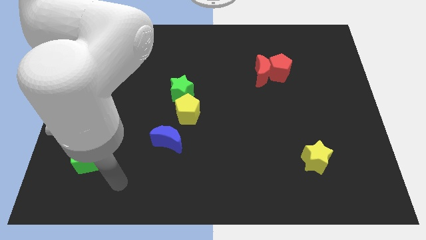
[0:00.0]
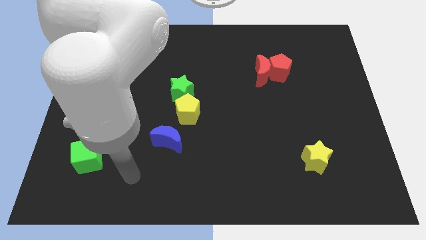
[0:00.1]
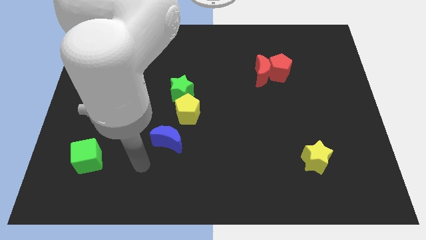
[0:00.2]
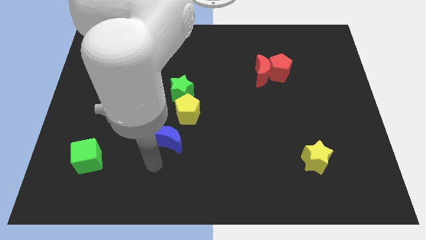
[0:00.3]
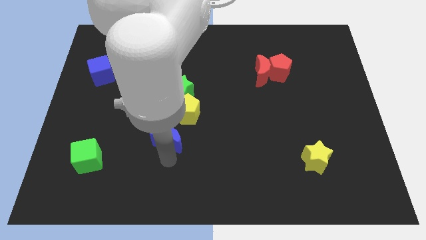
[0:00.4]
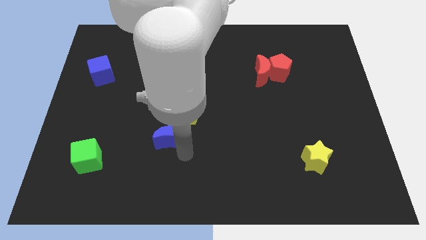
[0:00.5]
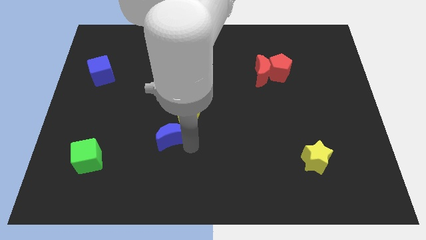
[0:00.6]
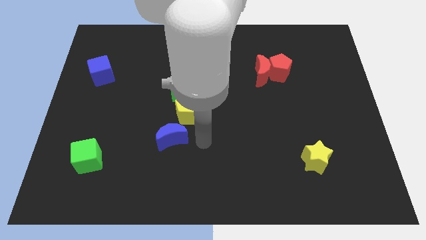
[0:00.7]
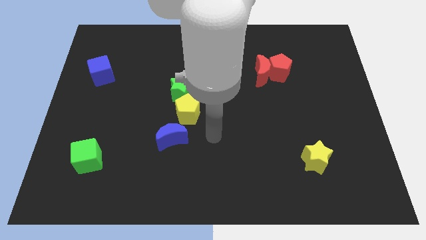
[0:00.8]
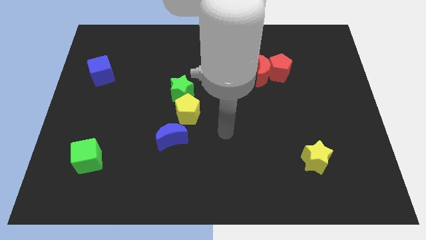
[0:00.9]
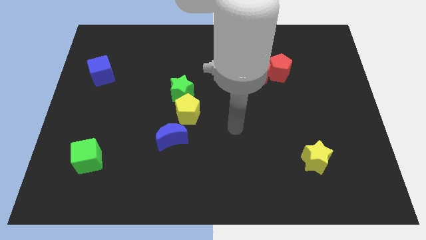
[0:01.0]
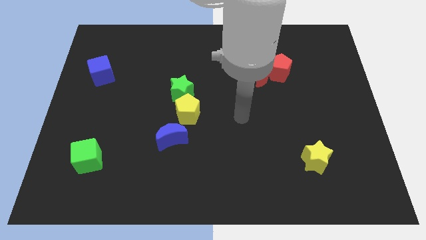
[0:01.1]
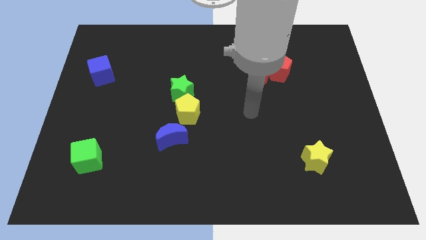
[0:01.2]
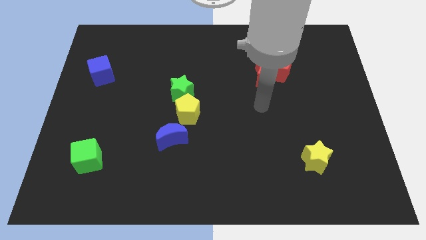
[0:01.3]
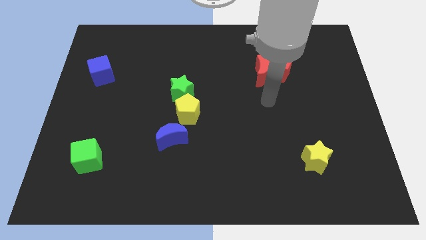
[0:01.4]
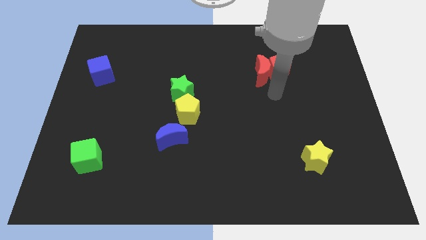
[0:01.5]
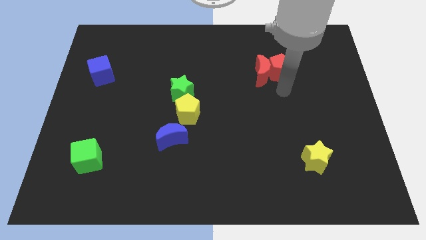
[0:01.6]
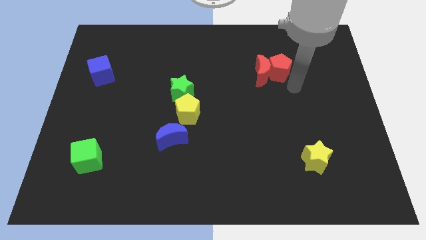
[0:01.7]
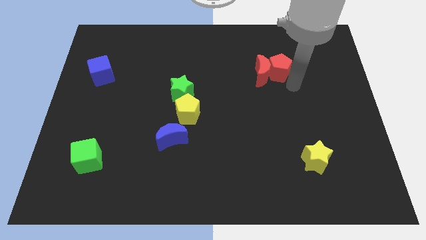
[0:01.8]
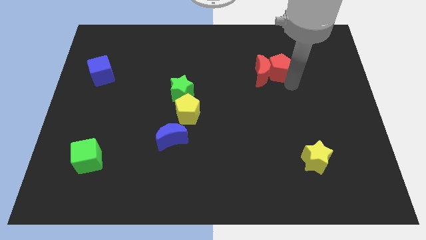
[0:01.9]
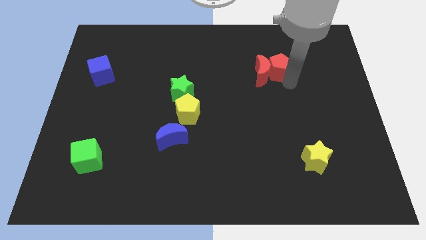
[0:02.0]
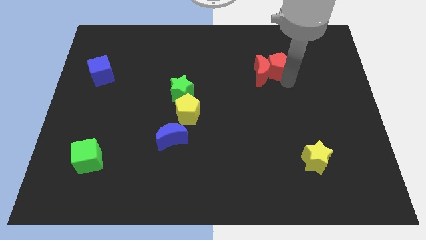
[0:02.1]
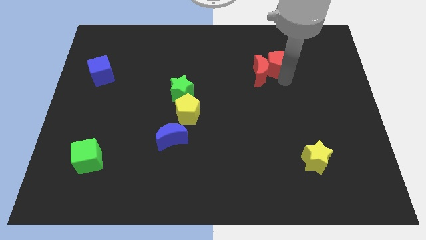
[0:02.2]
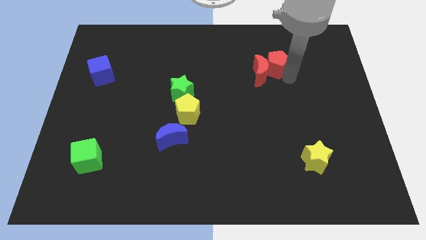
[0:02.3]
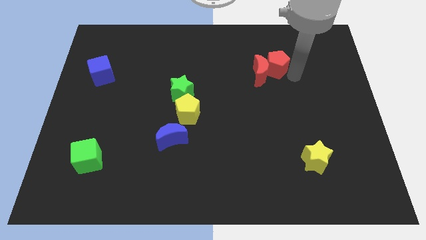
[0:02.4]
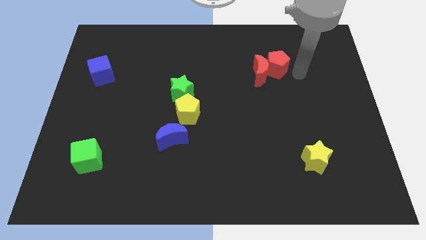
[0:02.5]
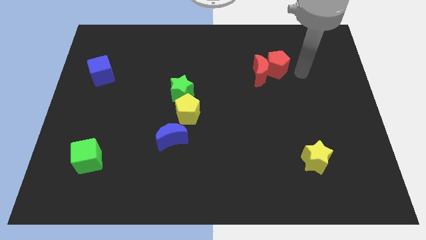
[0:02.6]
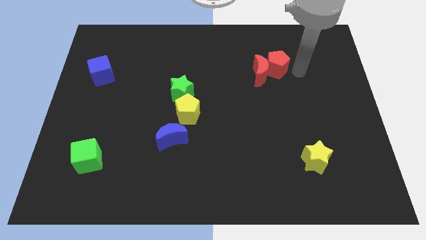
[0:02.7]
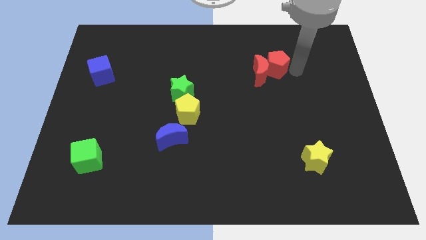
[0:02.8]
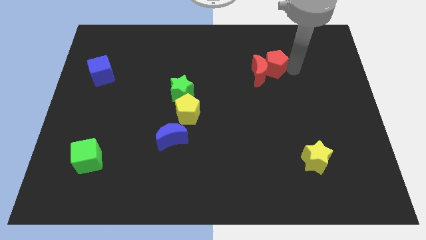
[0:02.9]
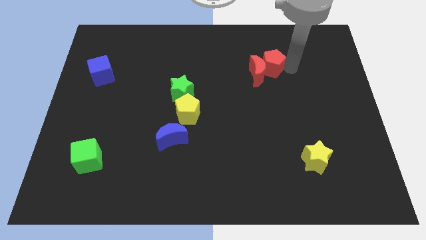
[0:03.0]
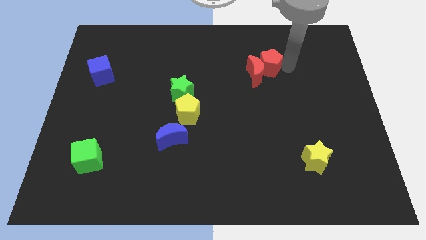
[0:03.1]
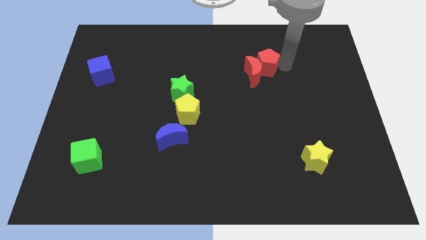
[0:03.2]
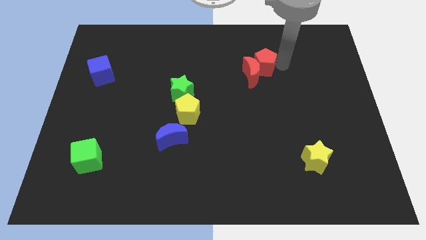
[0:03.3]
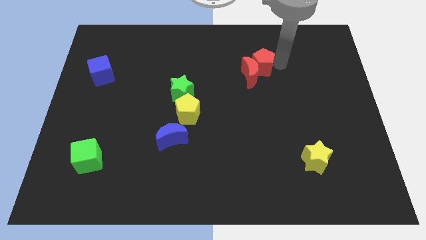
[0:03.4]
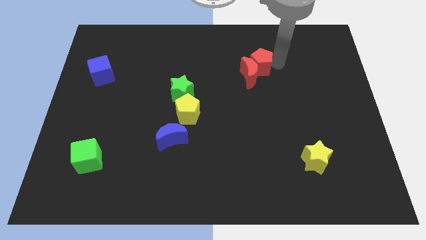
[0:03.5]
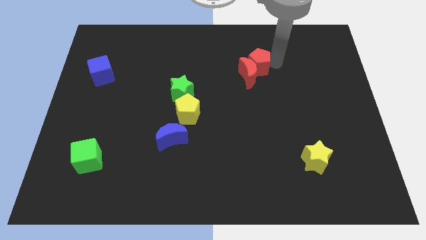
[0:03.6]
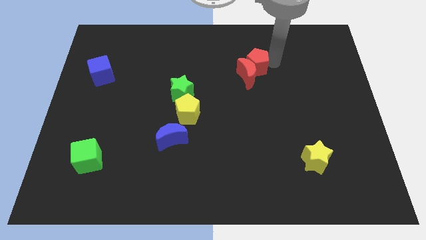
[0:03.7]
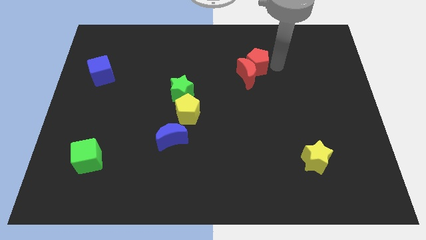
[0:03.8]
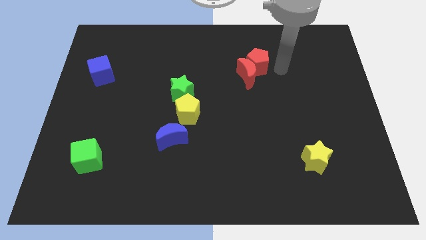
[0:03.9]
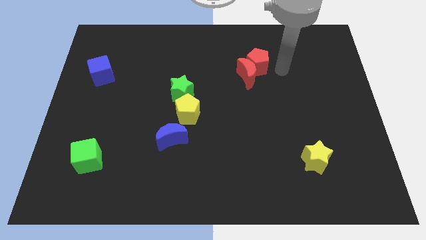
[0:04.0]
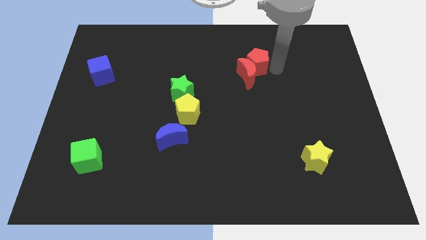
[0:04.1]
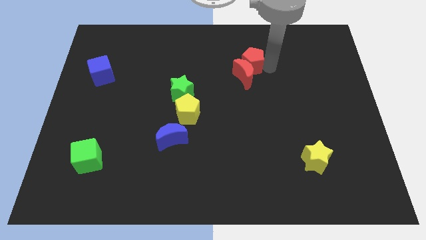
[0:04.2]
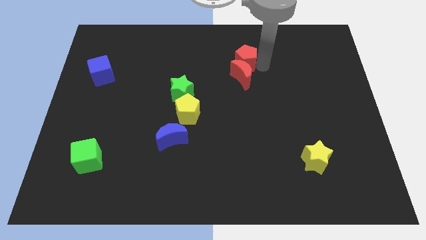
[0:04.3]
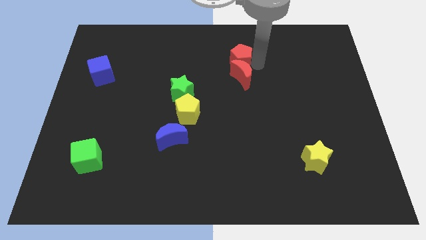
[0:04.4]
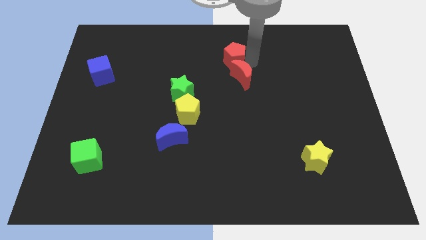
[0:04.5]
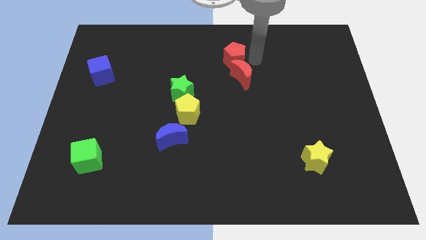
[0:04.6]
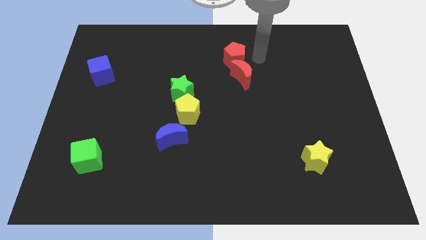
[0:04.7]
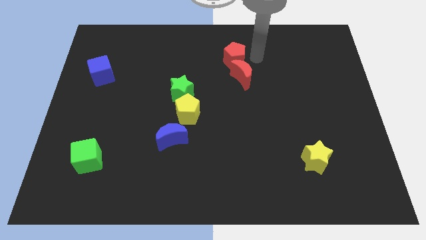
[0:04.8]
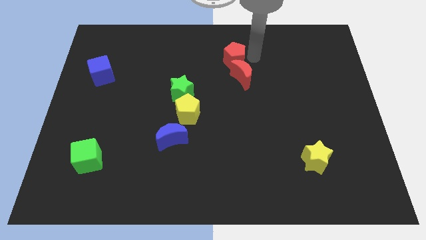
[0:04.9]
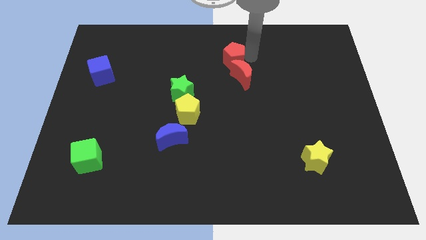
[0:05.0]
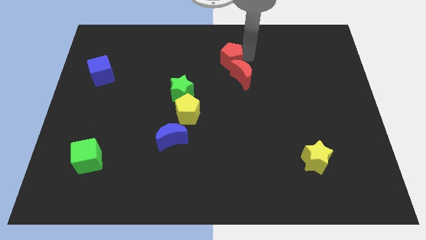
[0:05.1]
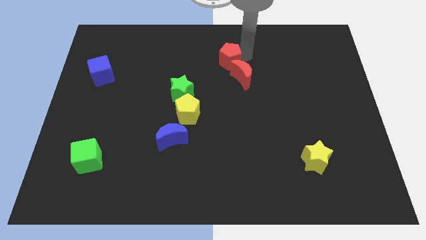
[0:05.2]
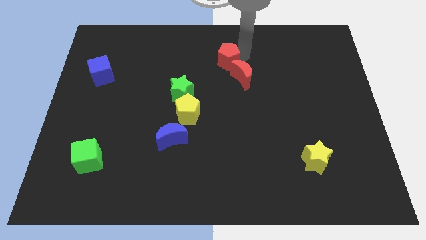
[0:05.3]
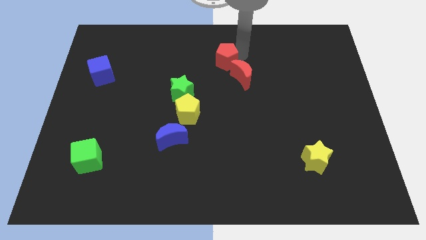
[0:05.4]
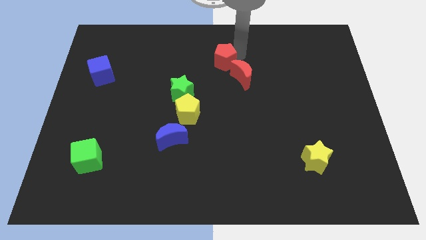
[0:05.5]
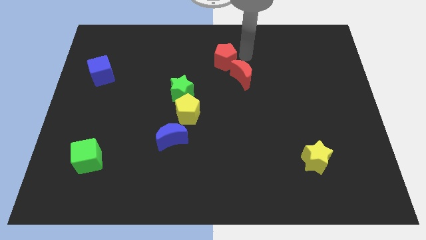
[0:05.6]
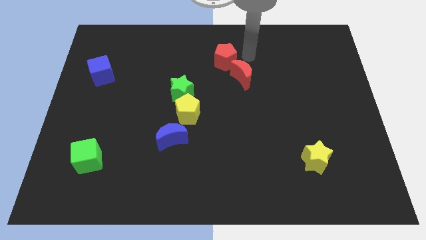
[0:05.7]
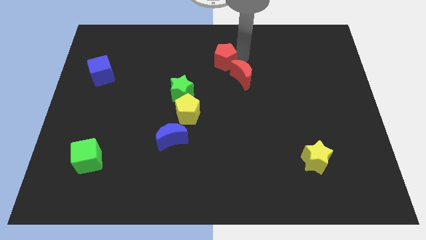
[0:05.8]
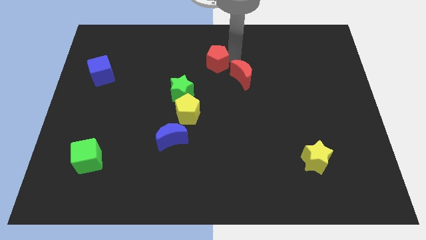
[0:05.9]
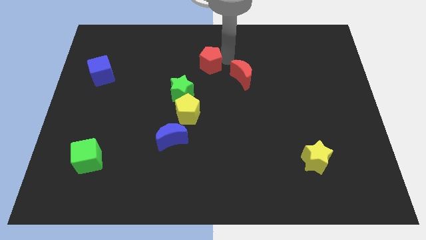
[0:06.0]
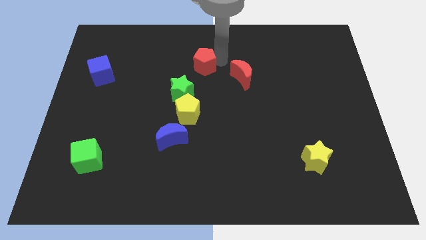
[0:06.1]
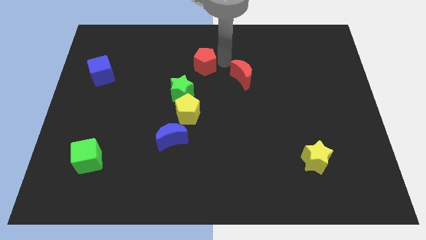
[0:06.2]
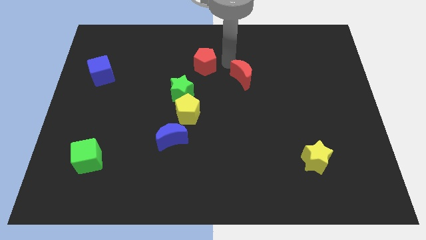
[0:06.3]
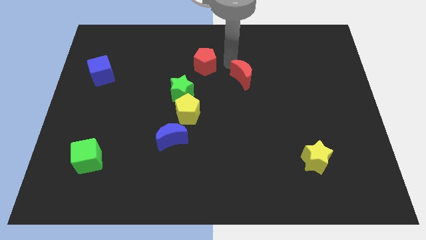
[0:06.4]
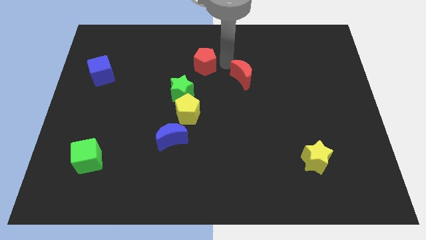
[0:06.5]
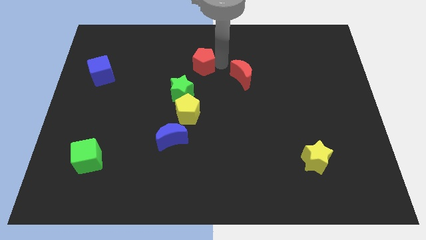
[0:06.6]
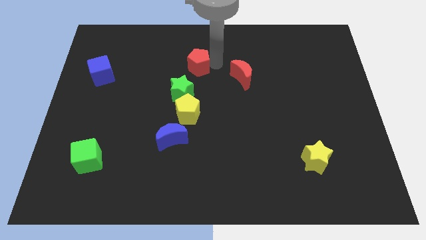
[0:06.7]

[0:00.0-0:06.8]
move the red pentagon to the left

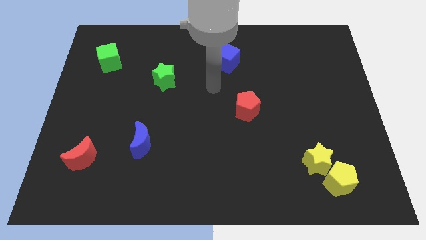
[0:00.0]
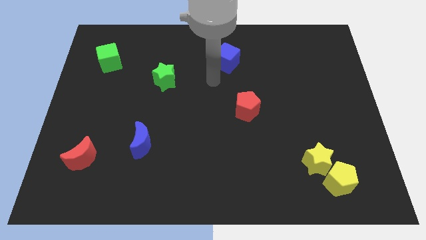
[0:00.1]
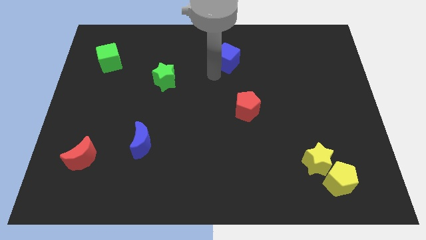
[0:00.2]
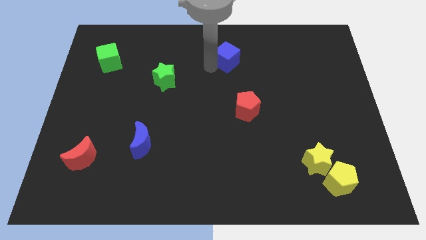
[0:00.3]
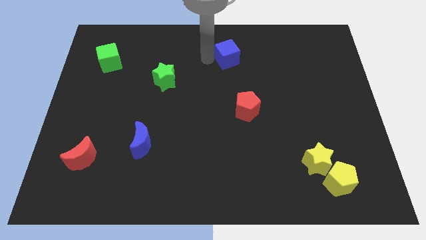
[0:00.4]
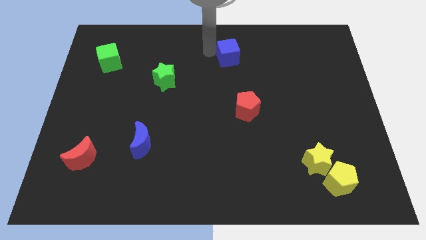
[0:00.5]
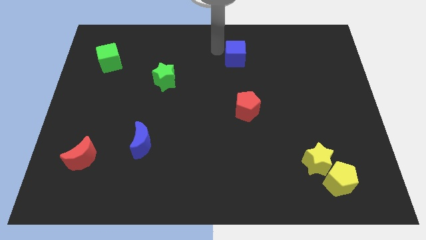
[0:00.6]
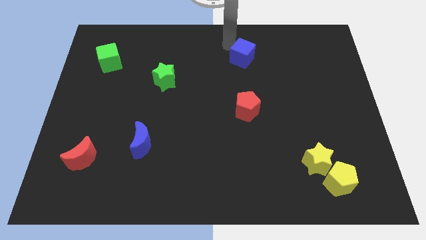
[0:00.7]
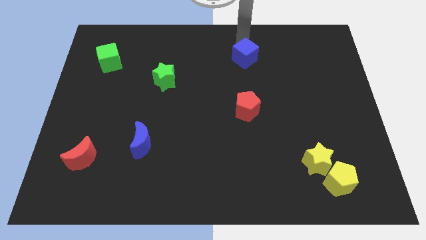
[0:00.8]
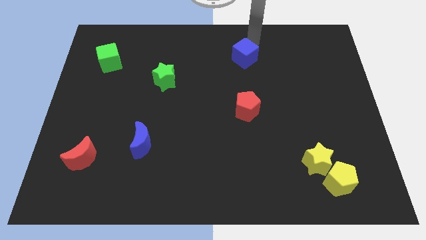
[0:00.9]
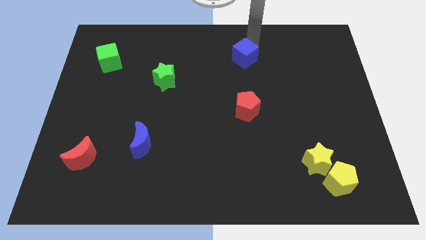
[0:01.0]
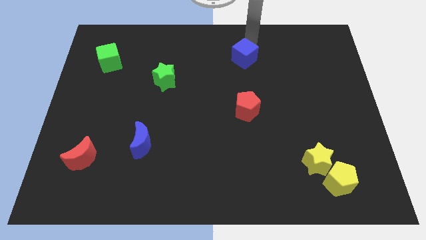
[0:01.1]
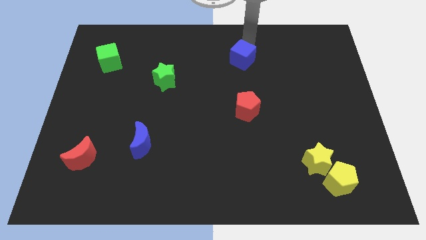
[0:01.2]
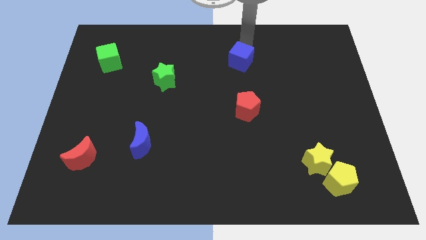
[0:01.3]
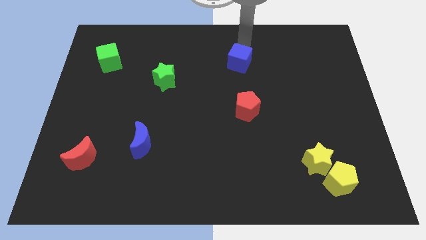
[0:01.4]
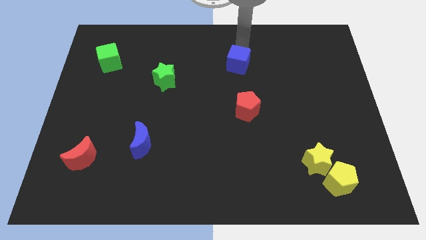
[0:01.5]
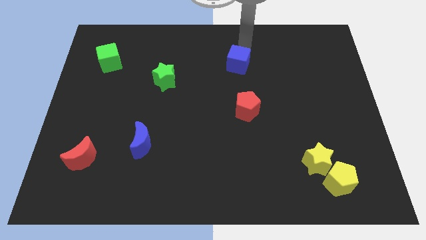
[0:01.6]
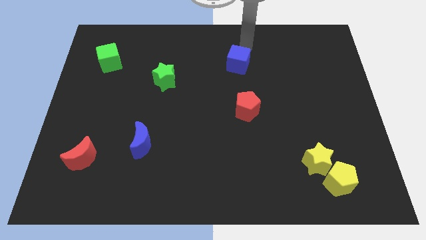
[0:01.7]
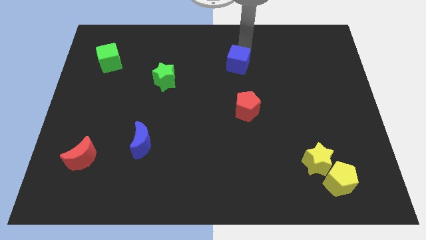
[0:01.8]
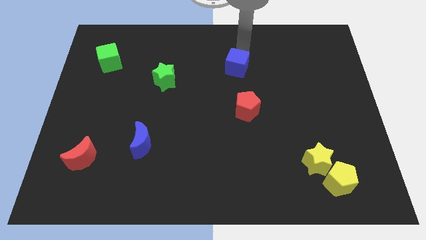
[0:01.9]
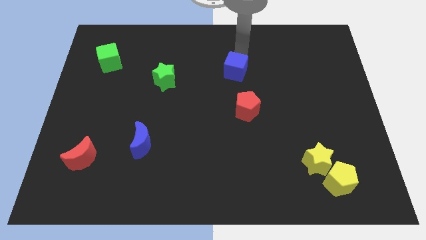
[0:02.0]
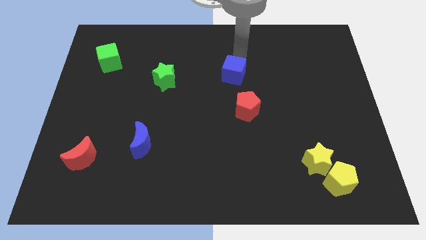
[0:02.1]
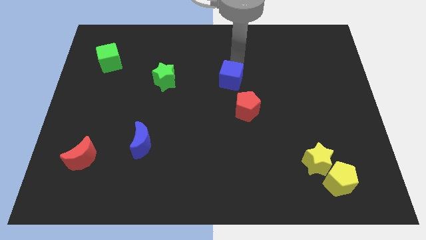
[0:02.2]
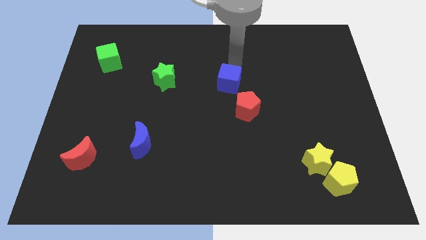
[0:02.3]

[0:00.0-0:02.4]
slightly slide the blue cube downwards
